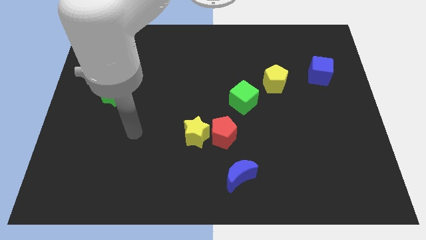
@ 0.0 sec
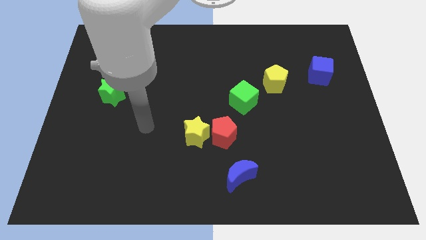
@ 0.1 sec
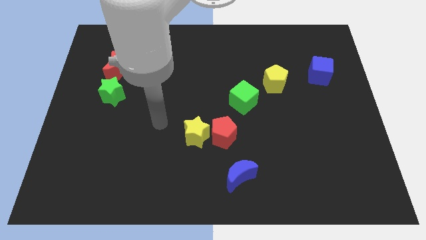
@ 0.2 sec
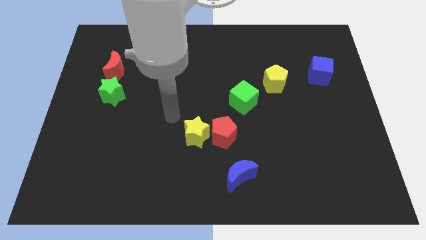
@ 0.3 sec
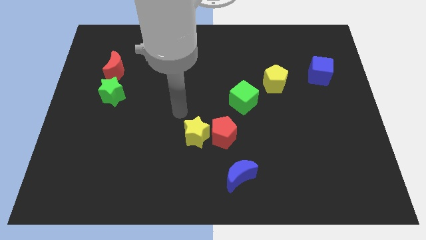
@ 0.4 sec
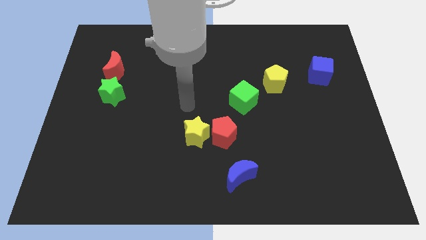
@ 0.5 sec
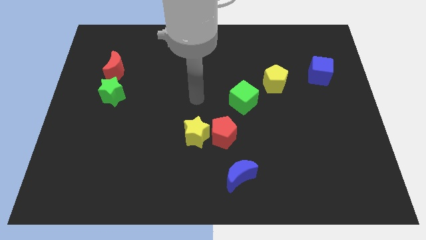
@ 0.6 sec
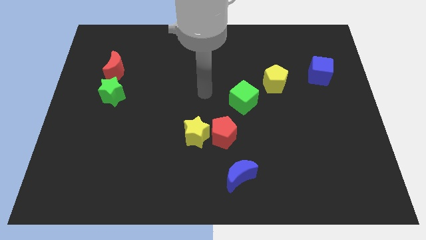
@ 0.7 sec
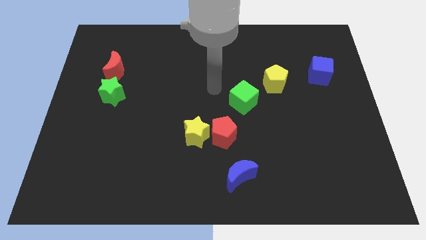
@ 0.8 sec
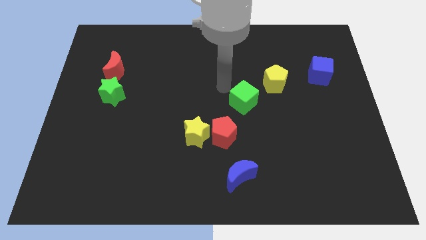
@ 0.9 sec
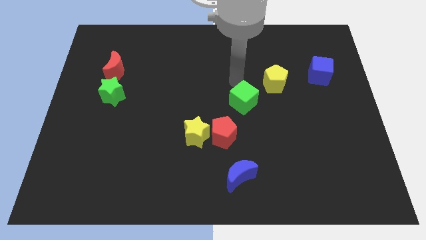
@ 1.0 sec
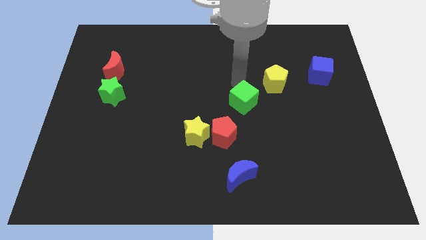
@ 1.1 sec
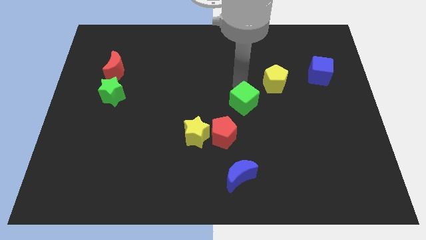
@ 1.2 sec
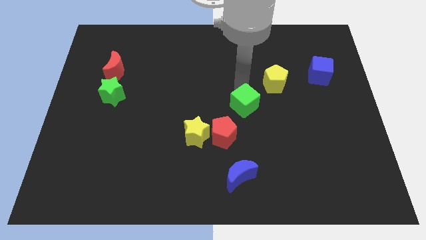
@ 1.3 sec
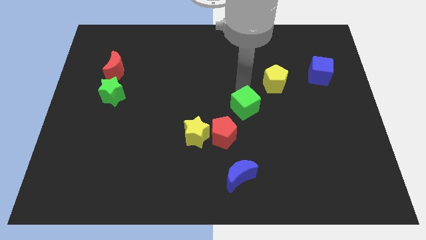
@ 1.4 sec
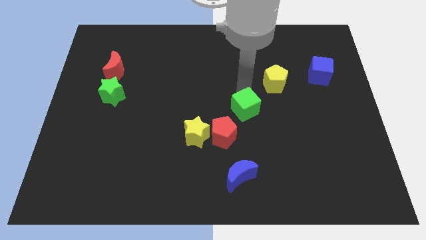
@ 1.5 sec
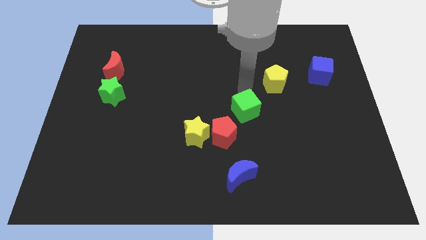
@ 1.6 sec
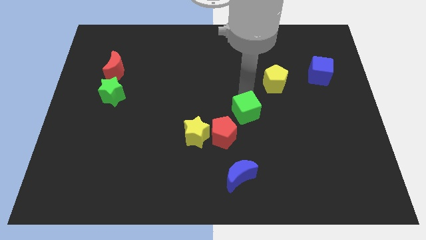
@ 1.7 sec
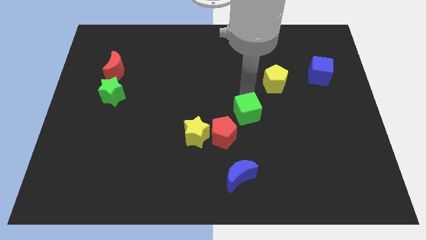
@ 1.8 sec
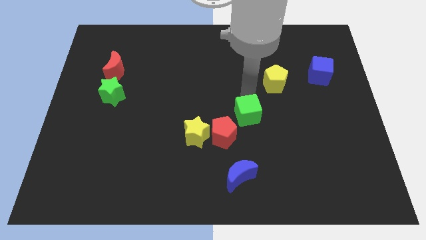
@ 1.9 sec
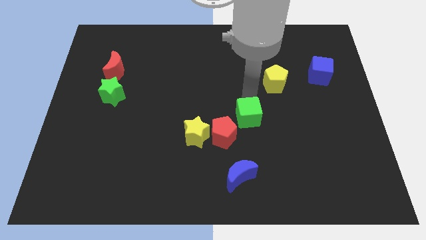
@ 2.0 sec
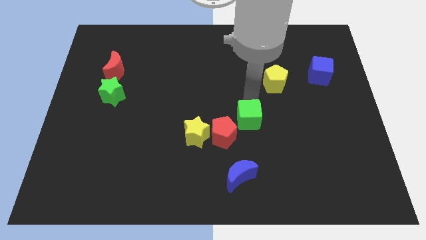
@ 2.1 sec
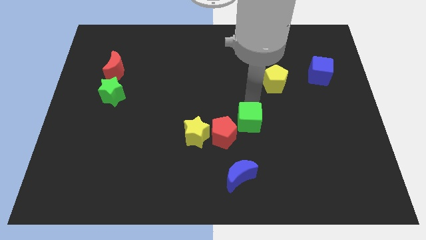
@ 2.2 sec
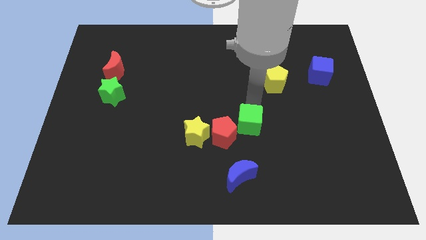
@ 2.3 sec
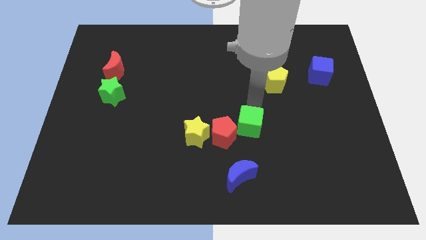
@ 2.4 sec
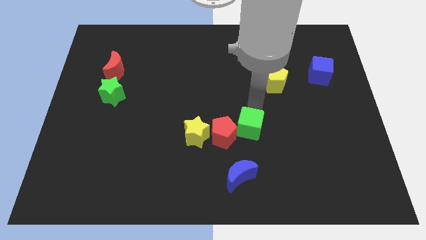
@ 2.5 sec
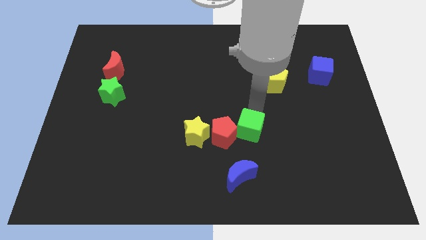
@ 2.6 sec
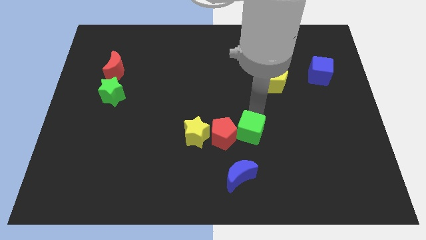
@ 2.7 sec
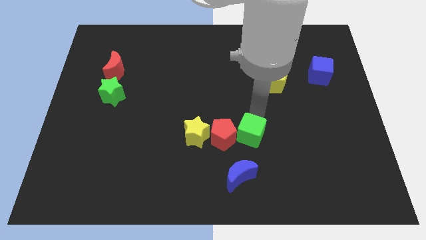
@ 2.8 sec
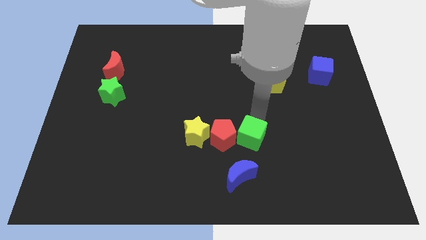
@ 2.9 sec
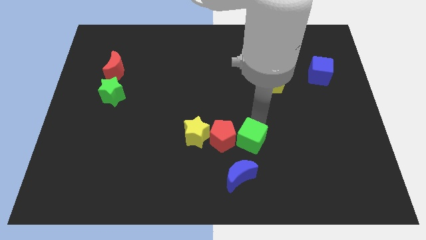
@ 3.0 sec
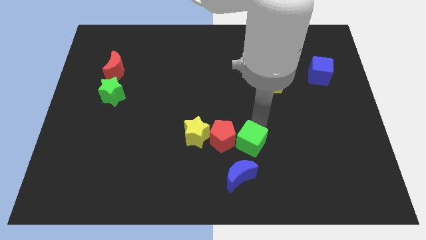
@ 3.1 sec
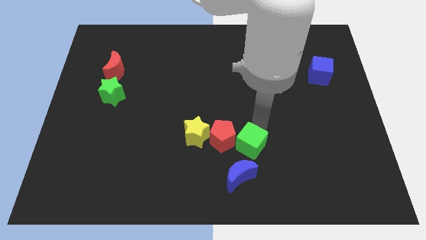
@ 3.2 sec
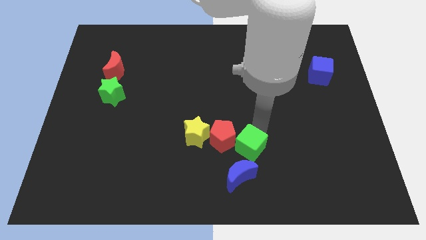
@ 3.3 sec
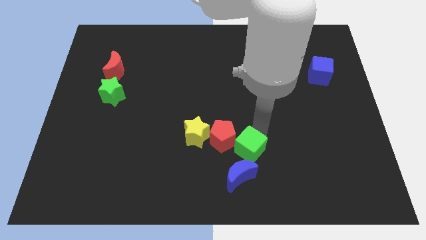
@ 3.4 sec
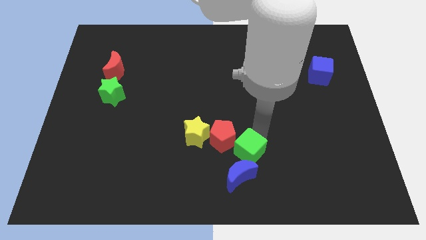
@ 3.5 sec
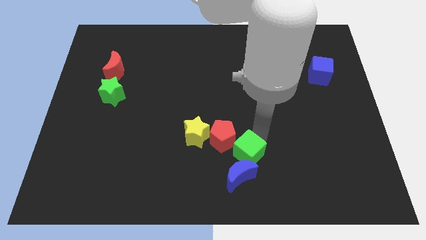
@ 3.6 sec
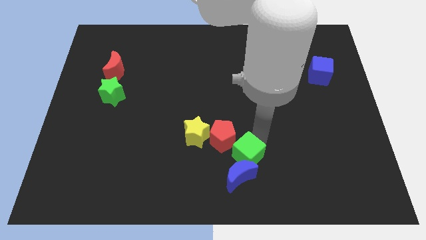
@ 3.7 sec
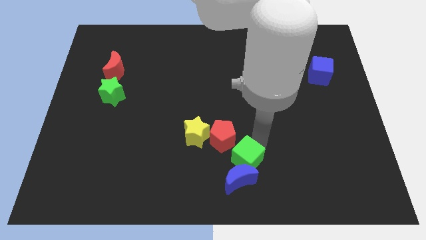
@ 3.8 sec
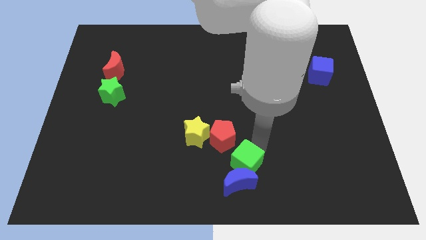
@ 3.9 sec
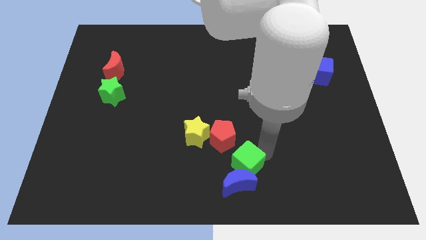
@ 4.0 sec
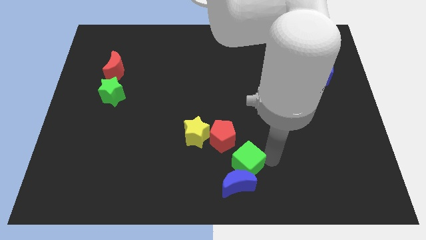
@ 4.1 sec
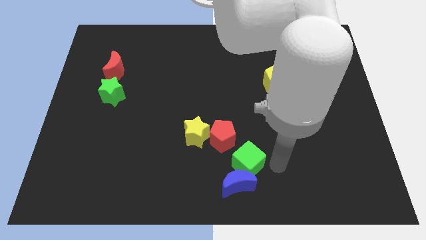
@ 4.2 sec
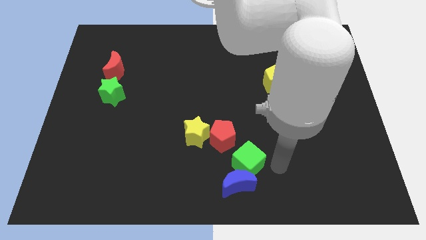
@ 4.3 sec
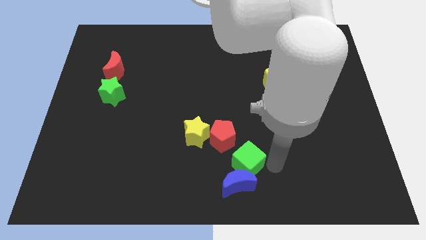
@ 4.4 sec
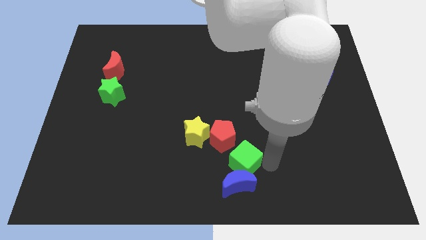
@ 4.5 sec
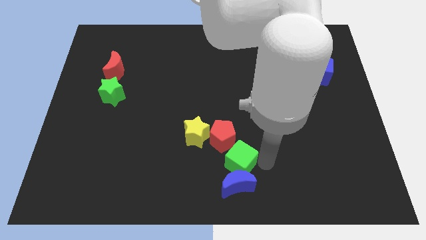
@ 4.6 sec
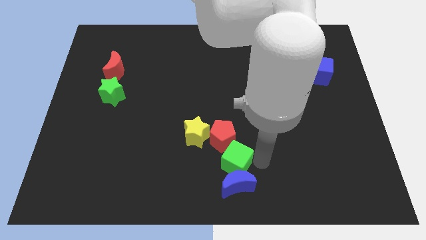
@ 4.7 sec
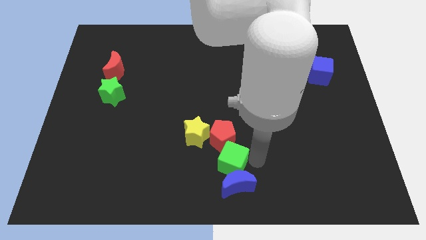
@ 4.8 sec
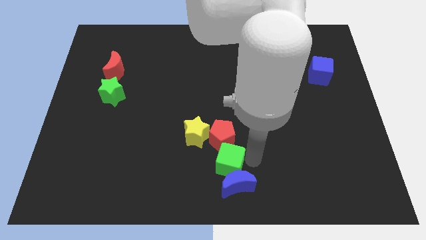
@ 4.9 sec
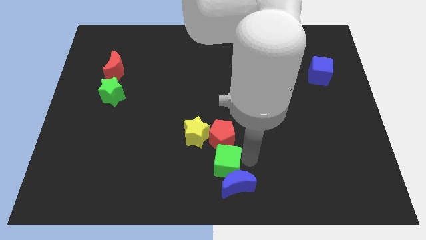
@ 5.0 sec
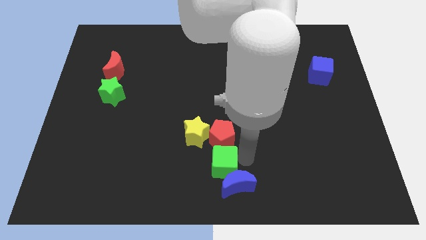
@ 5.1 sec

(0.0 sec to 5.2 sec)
push the green cube to the bottom left side of the red pentagon
